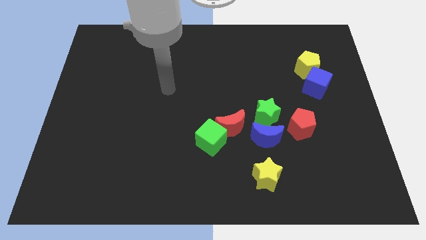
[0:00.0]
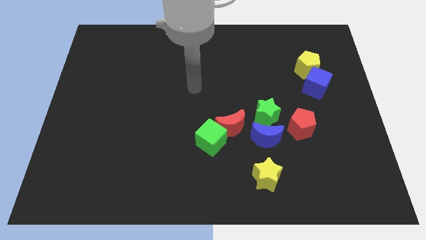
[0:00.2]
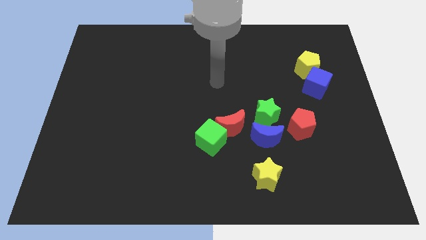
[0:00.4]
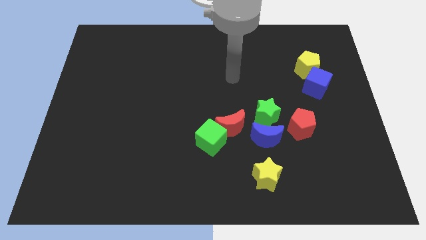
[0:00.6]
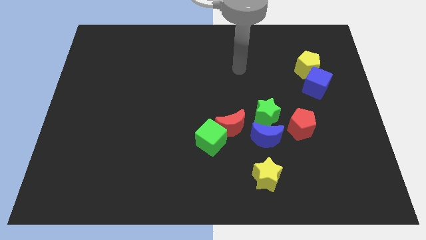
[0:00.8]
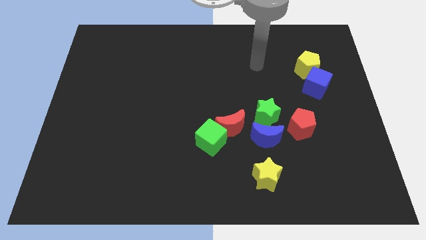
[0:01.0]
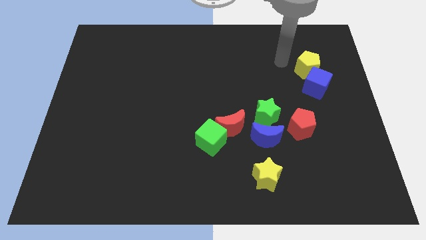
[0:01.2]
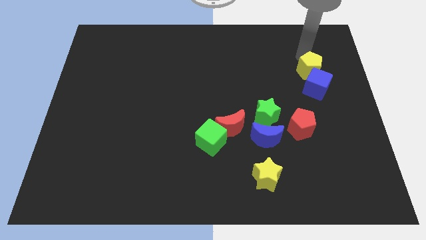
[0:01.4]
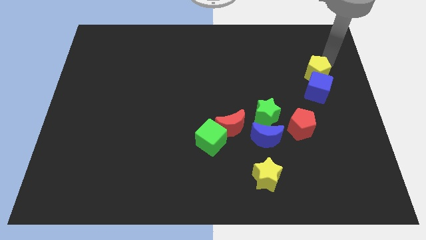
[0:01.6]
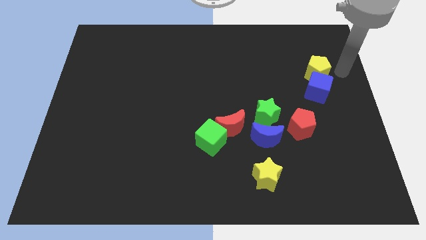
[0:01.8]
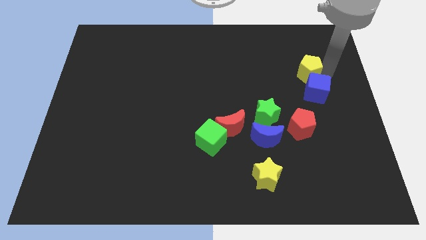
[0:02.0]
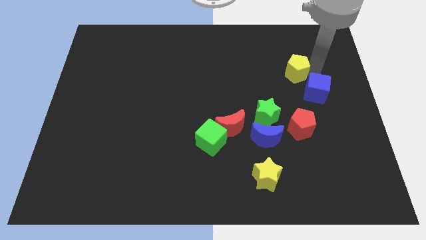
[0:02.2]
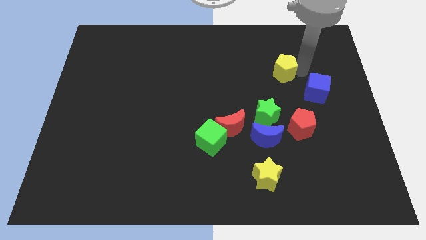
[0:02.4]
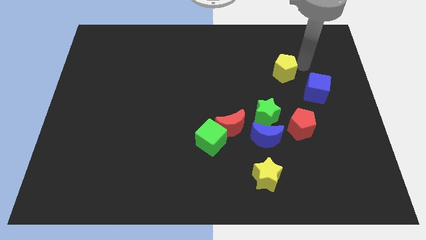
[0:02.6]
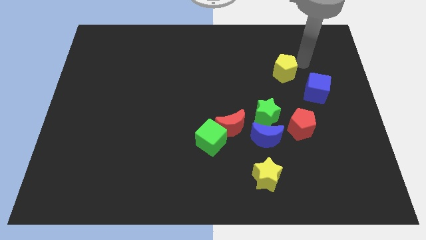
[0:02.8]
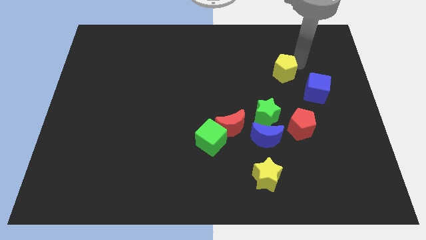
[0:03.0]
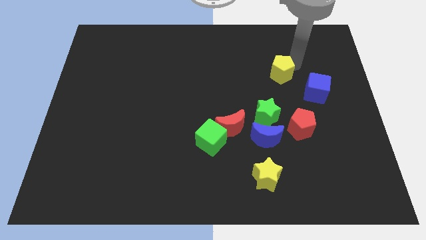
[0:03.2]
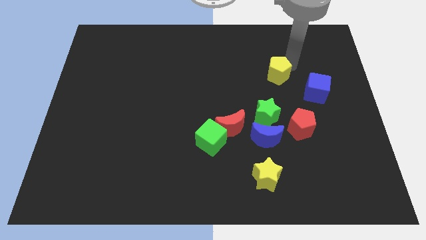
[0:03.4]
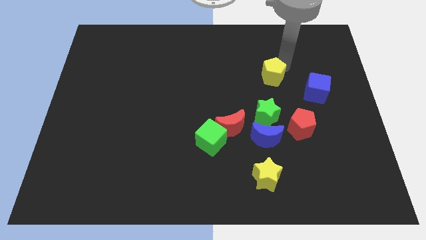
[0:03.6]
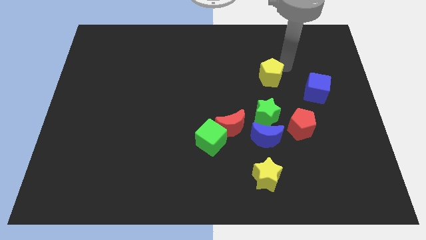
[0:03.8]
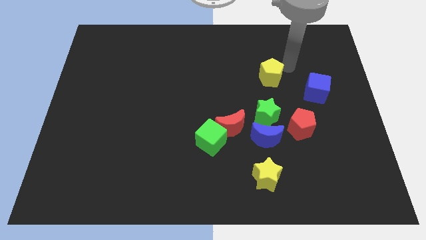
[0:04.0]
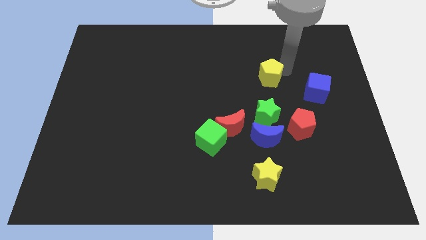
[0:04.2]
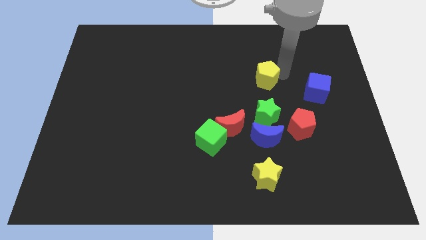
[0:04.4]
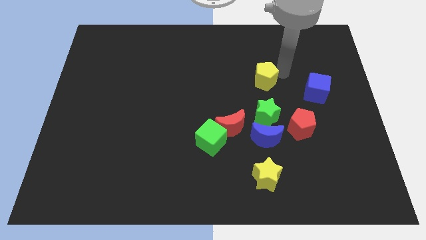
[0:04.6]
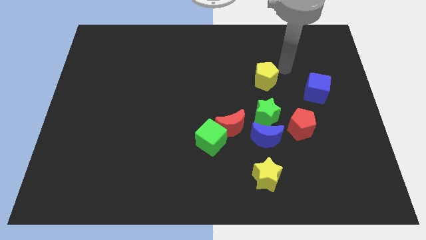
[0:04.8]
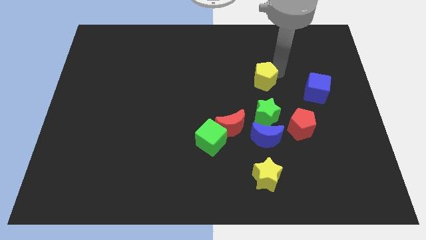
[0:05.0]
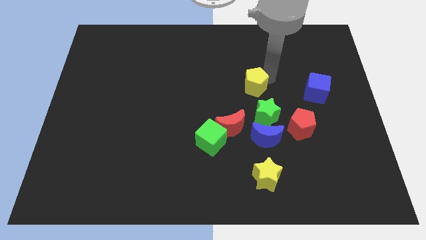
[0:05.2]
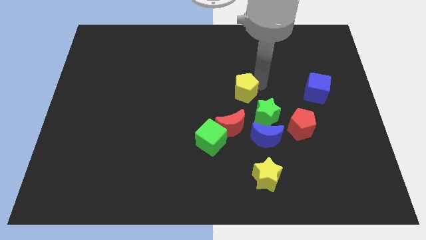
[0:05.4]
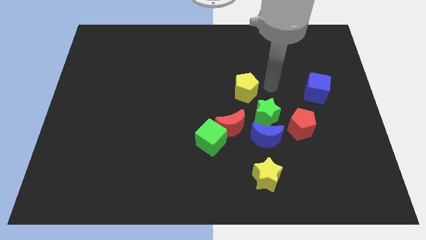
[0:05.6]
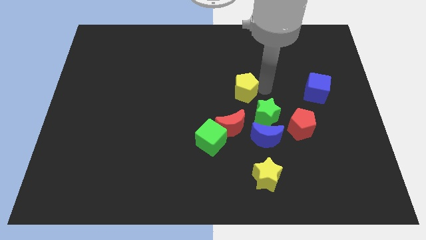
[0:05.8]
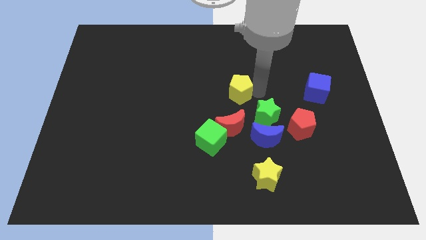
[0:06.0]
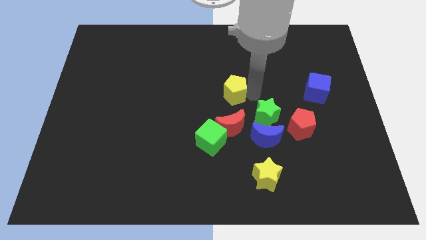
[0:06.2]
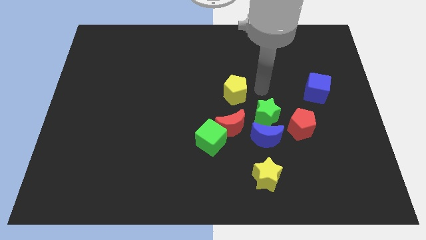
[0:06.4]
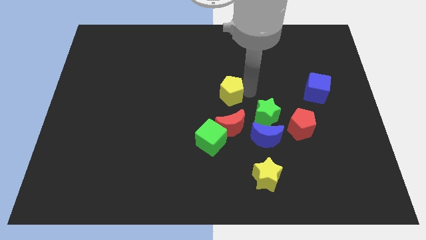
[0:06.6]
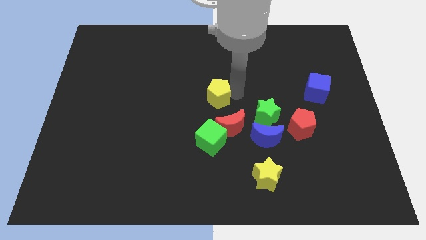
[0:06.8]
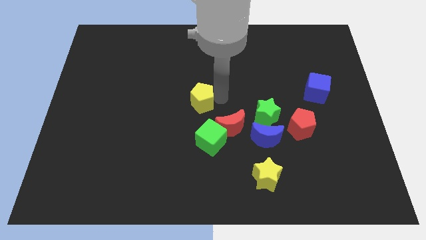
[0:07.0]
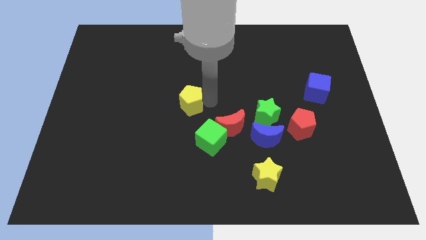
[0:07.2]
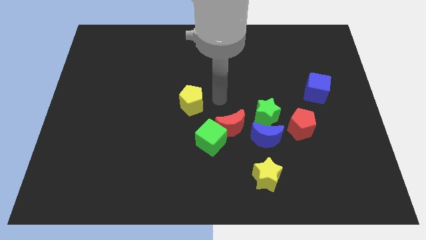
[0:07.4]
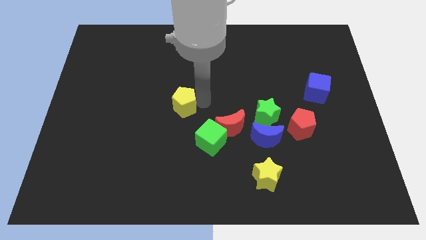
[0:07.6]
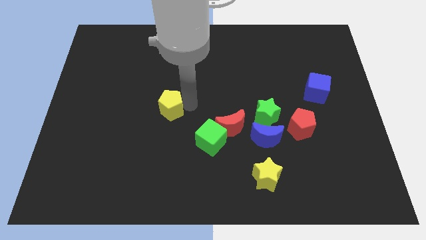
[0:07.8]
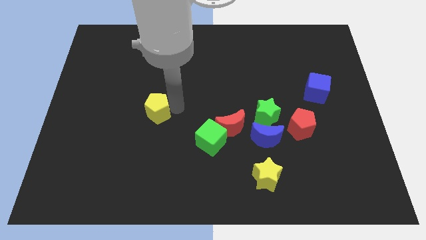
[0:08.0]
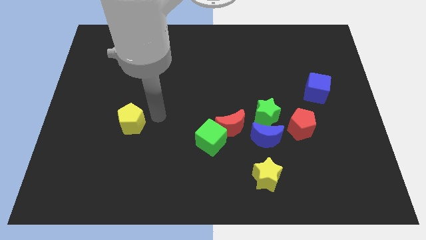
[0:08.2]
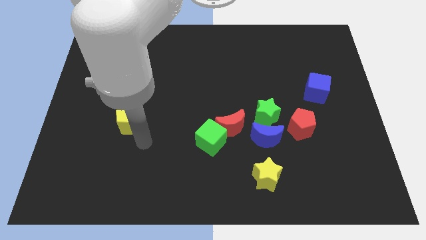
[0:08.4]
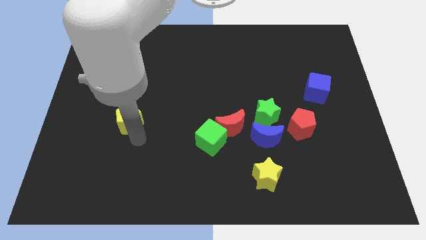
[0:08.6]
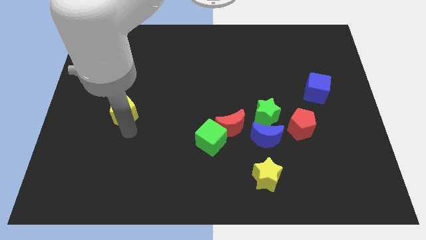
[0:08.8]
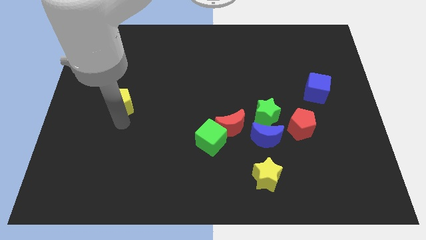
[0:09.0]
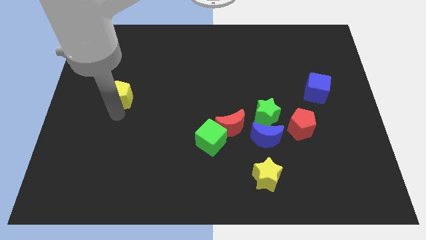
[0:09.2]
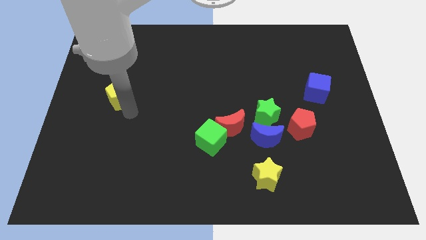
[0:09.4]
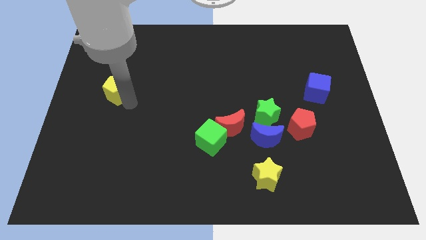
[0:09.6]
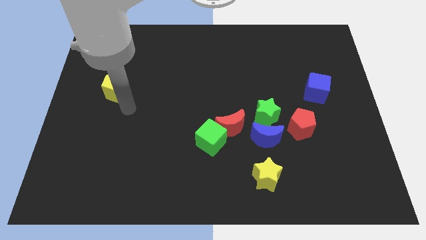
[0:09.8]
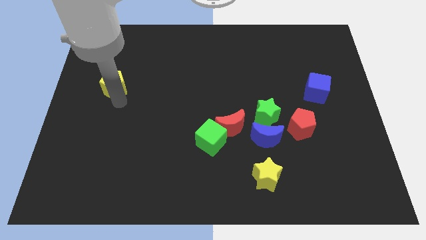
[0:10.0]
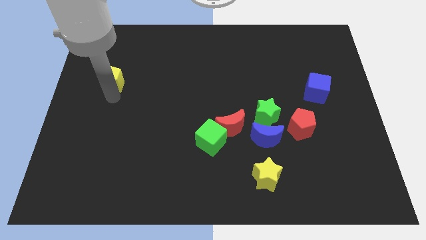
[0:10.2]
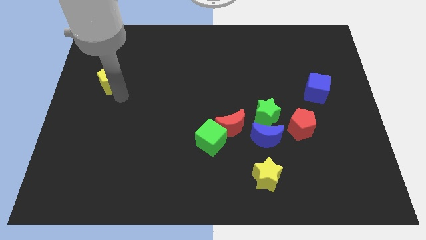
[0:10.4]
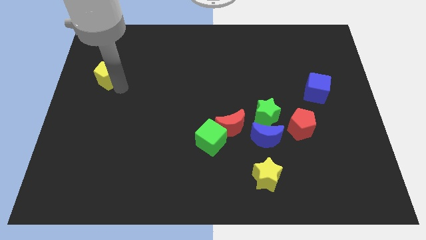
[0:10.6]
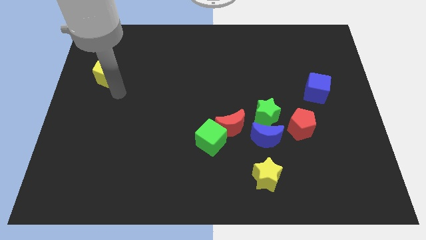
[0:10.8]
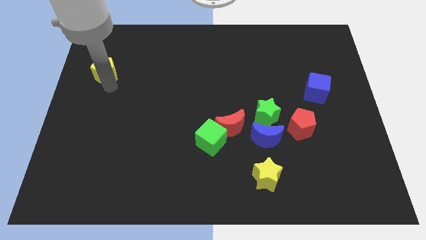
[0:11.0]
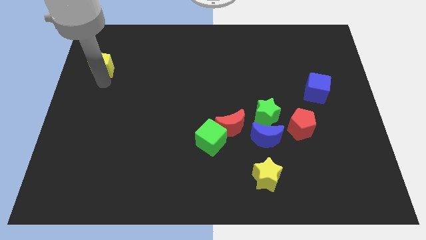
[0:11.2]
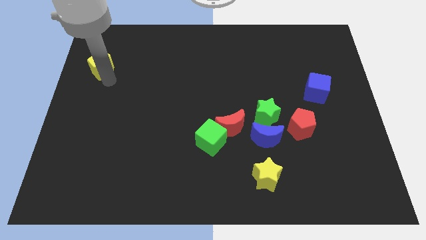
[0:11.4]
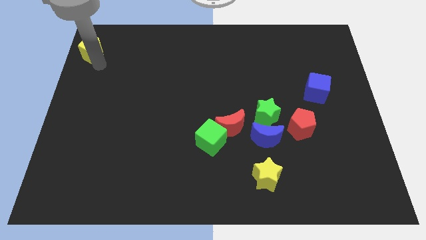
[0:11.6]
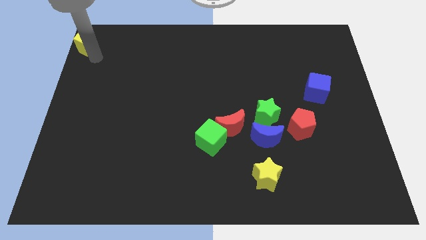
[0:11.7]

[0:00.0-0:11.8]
move the yellow pentagon to the top left
